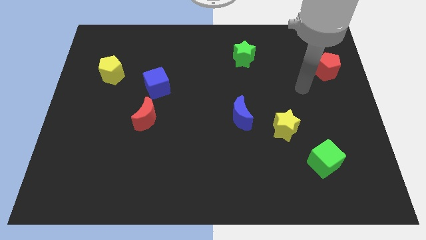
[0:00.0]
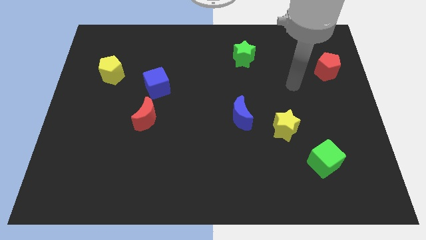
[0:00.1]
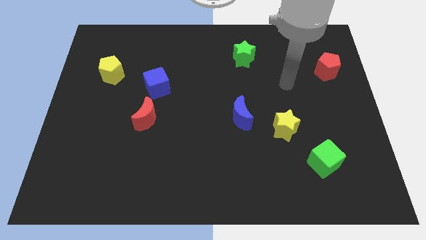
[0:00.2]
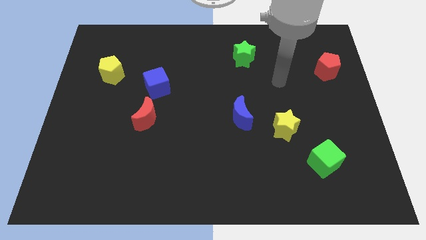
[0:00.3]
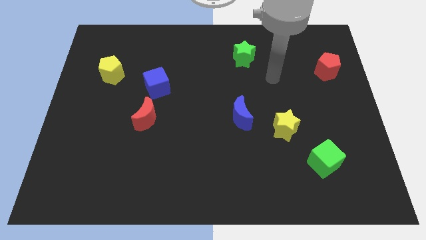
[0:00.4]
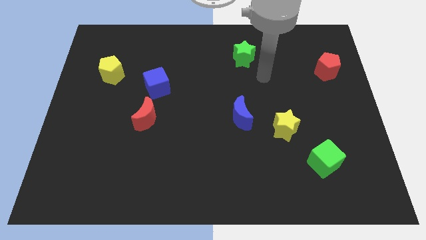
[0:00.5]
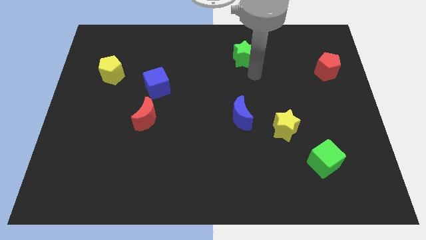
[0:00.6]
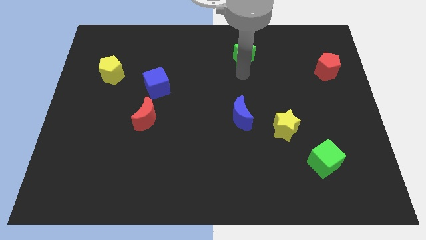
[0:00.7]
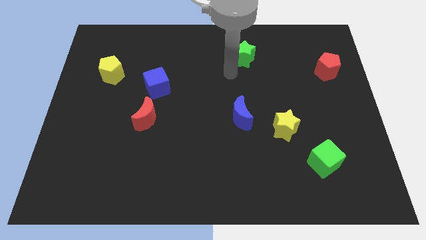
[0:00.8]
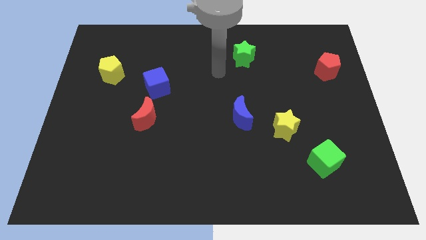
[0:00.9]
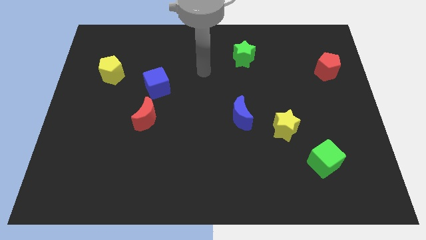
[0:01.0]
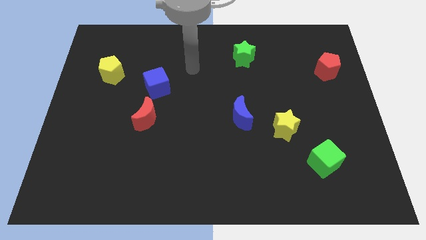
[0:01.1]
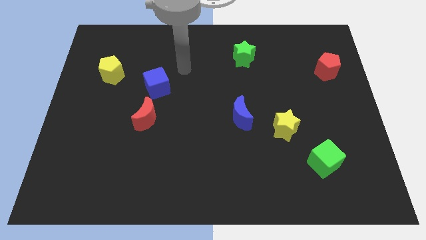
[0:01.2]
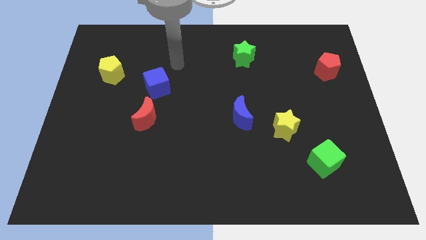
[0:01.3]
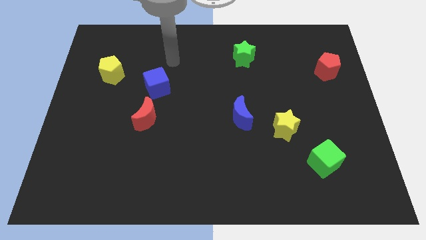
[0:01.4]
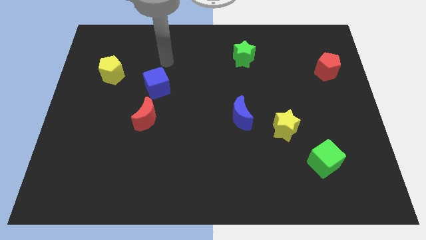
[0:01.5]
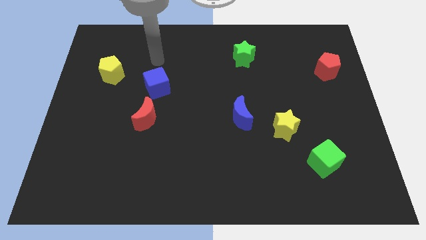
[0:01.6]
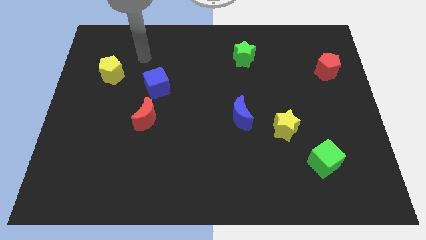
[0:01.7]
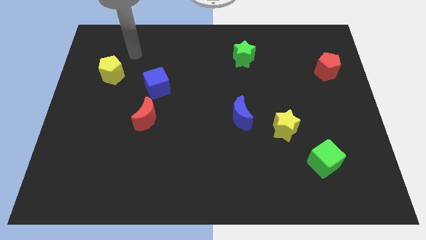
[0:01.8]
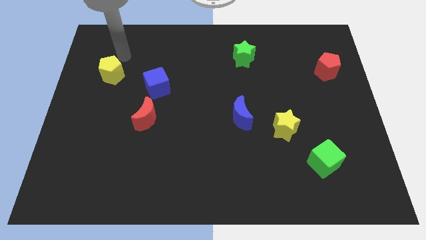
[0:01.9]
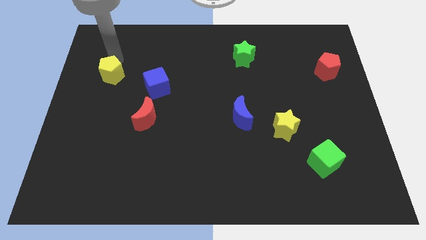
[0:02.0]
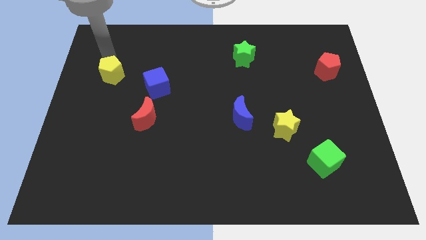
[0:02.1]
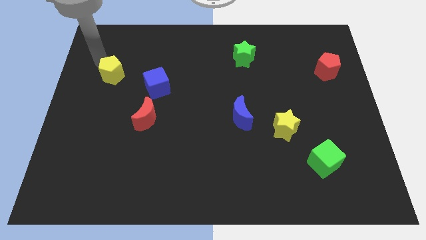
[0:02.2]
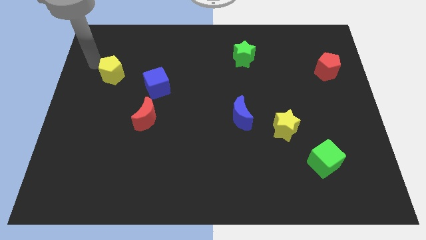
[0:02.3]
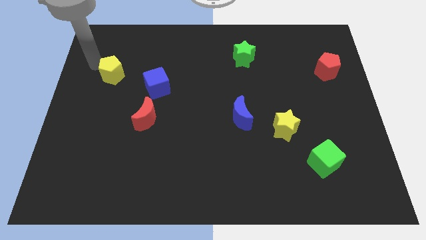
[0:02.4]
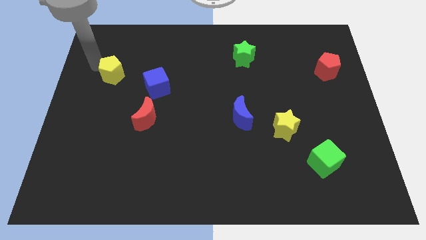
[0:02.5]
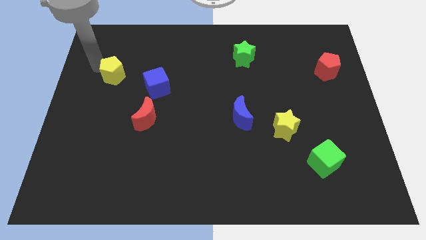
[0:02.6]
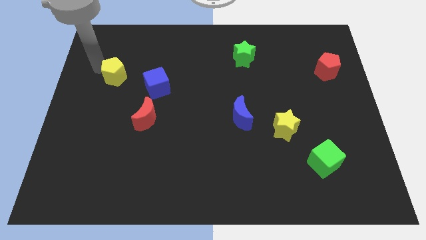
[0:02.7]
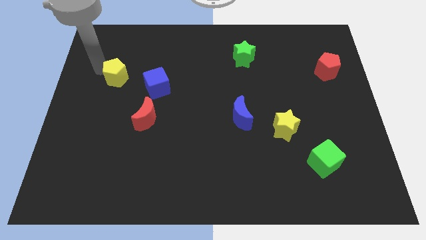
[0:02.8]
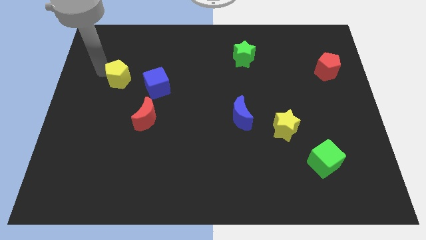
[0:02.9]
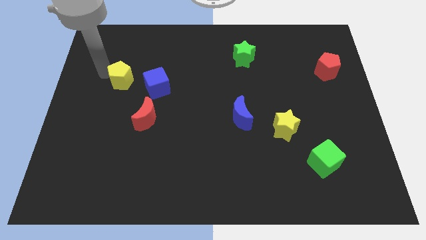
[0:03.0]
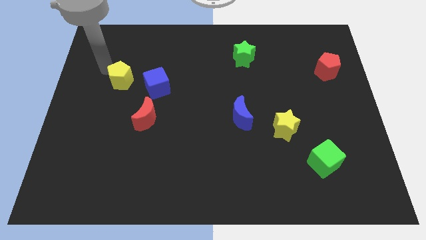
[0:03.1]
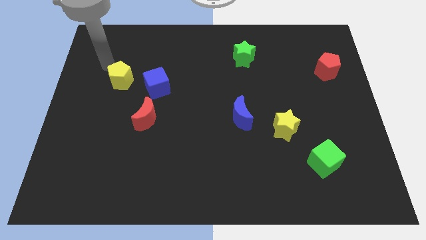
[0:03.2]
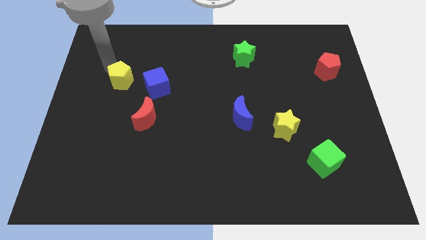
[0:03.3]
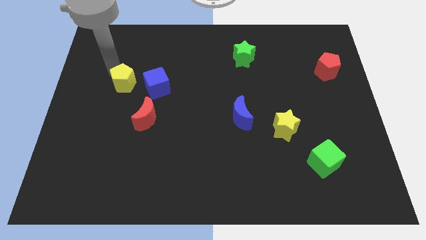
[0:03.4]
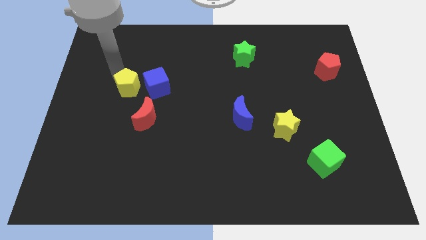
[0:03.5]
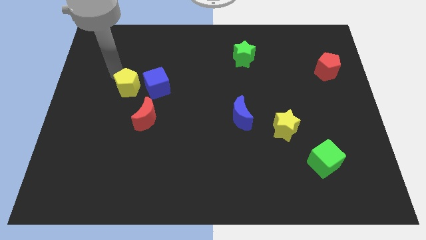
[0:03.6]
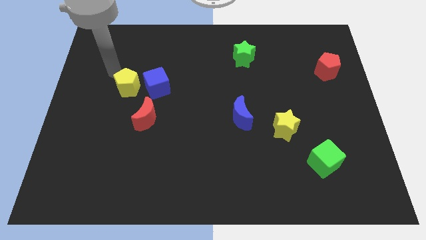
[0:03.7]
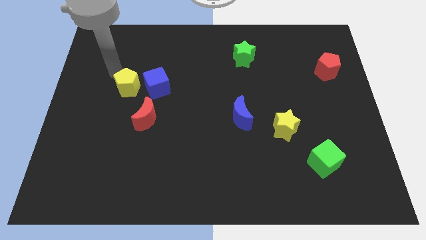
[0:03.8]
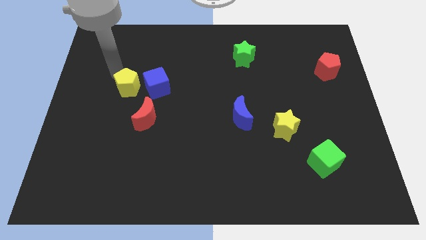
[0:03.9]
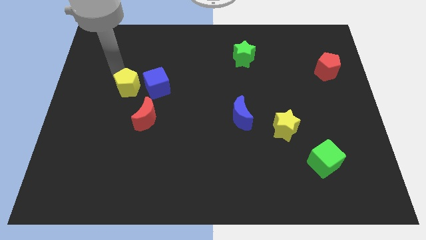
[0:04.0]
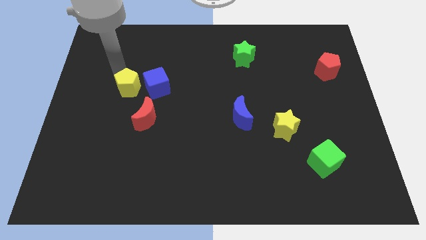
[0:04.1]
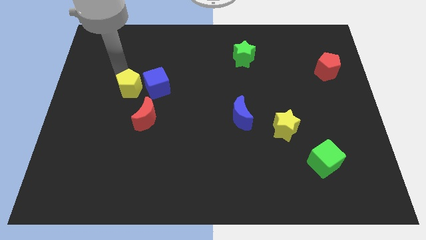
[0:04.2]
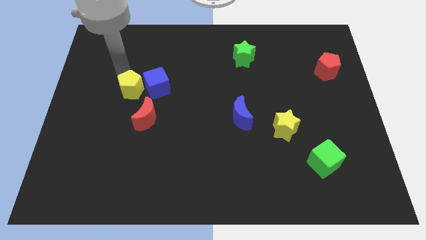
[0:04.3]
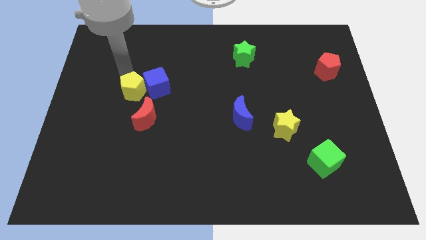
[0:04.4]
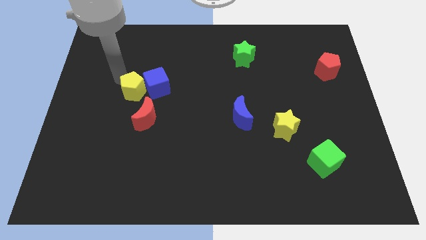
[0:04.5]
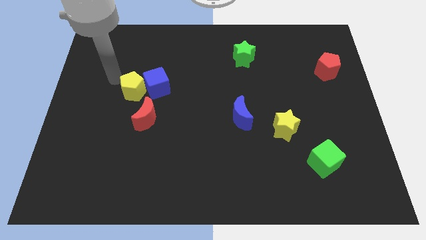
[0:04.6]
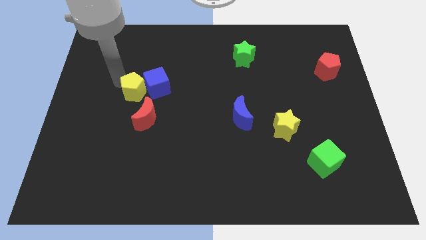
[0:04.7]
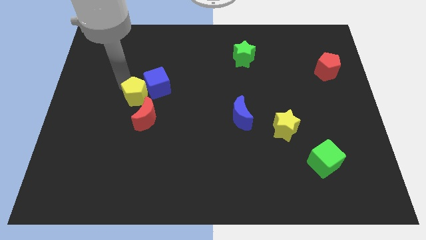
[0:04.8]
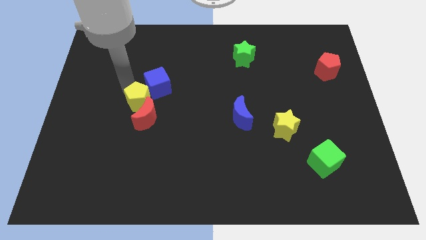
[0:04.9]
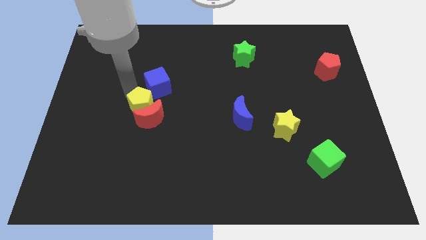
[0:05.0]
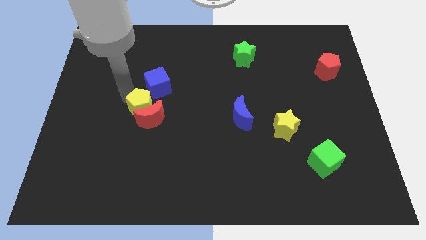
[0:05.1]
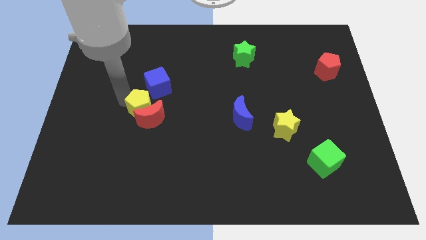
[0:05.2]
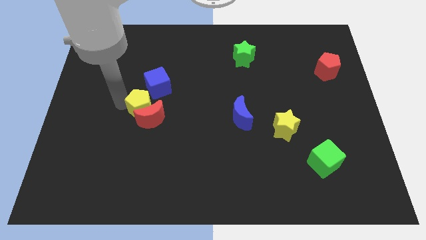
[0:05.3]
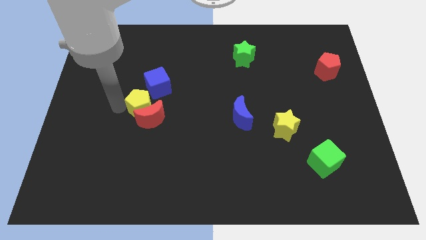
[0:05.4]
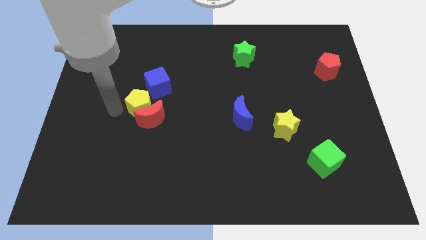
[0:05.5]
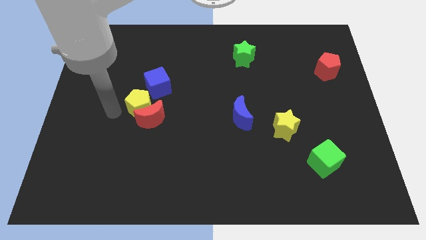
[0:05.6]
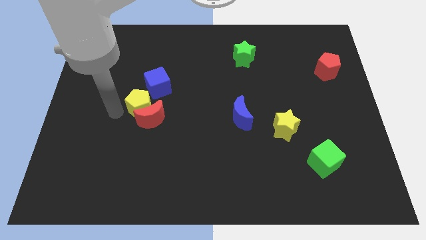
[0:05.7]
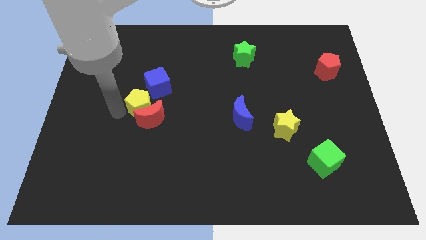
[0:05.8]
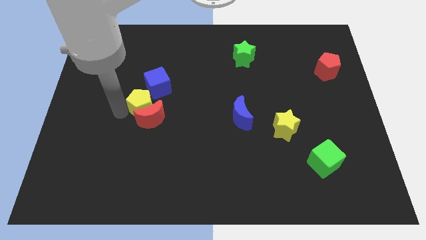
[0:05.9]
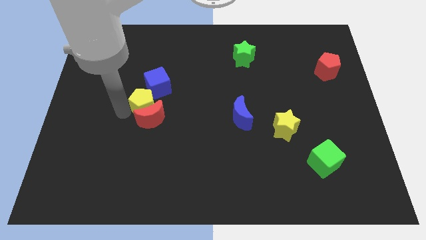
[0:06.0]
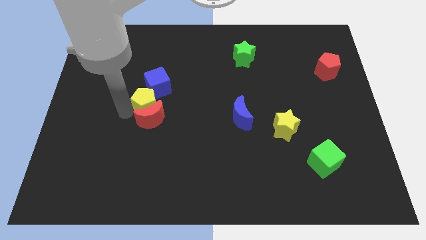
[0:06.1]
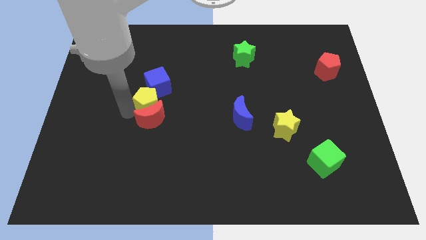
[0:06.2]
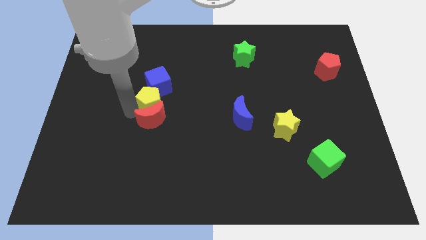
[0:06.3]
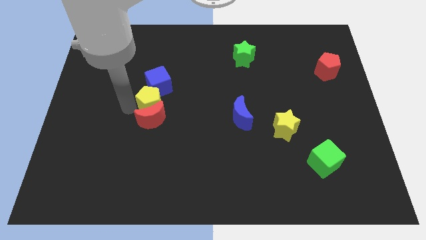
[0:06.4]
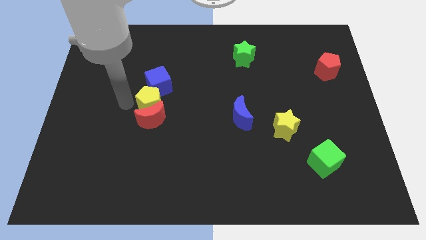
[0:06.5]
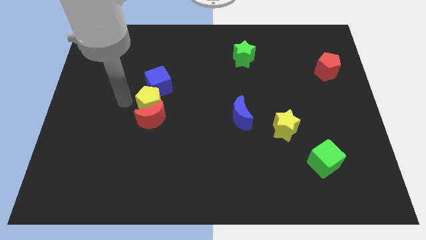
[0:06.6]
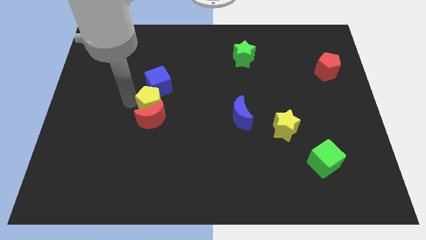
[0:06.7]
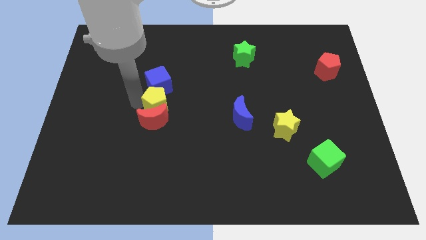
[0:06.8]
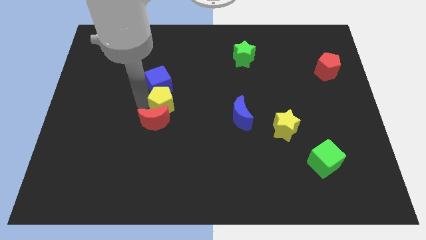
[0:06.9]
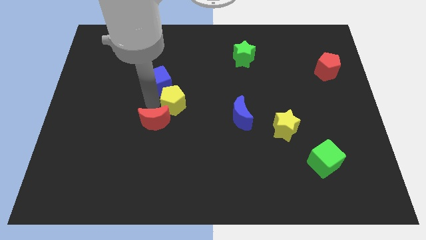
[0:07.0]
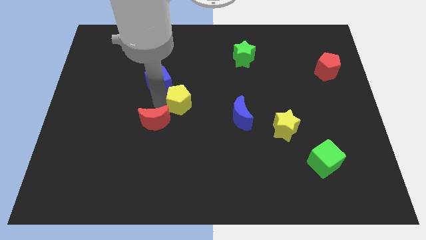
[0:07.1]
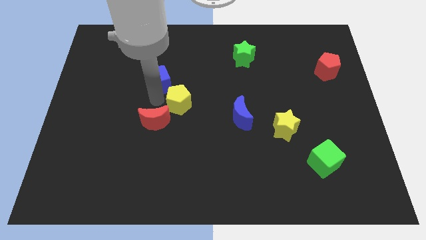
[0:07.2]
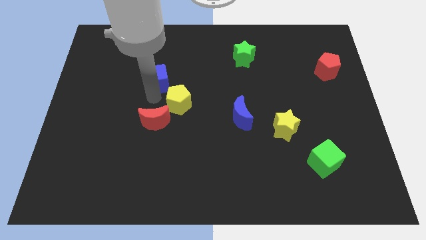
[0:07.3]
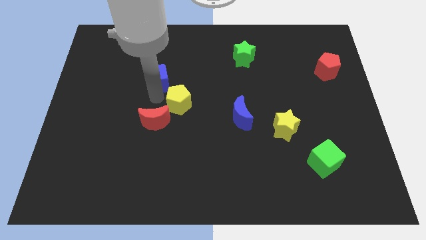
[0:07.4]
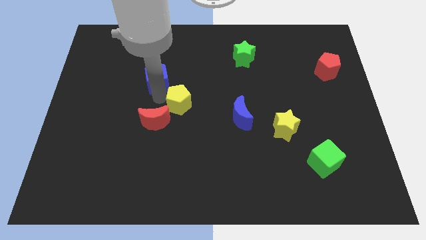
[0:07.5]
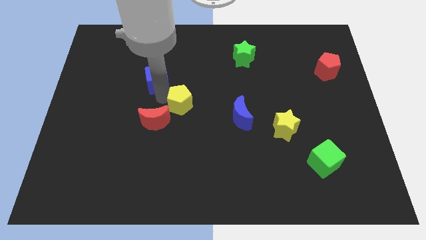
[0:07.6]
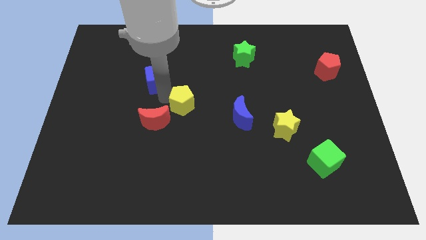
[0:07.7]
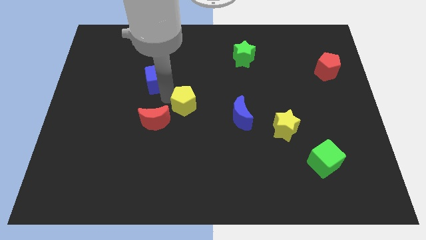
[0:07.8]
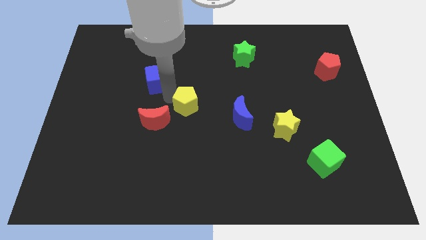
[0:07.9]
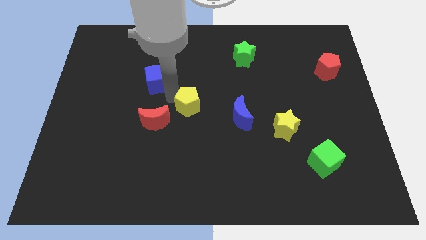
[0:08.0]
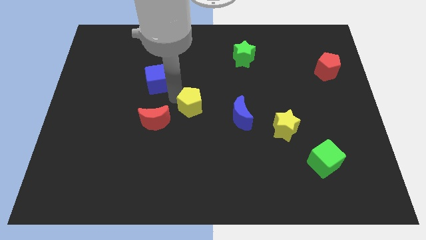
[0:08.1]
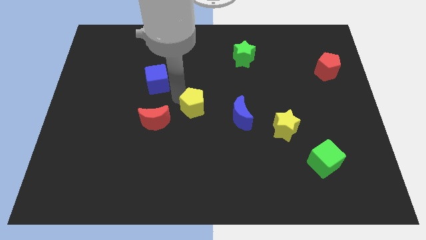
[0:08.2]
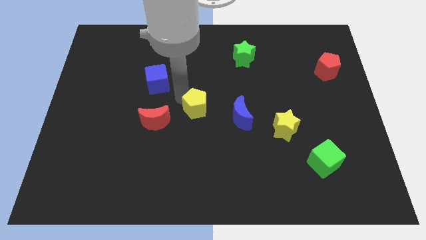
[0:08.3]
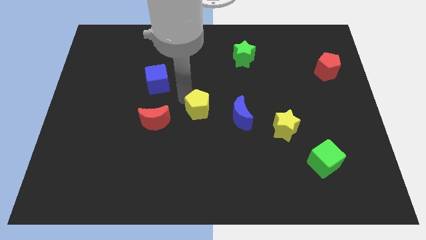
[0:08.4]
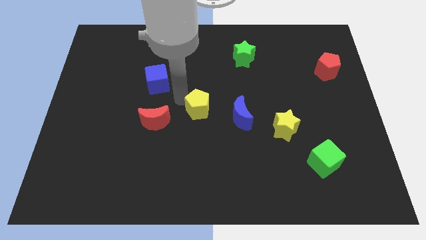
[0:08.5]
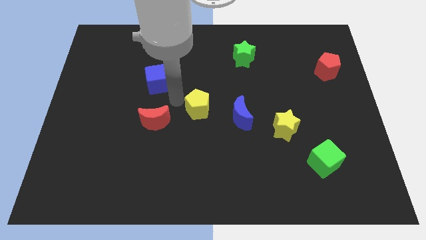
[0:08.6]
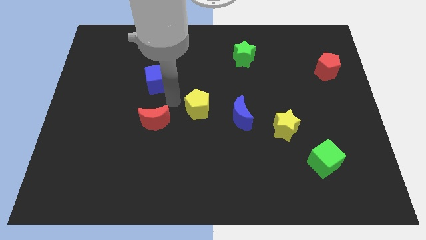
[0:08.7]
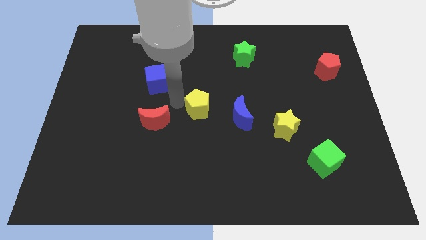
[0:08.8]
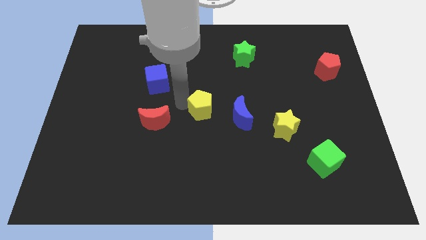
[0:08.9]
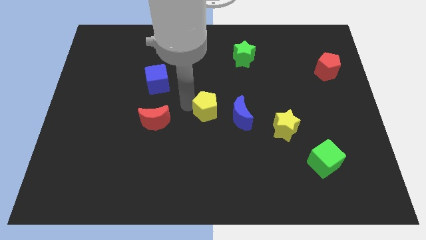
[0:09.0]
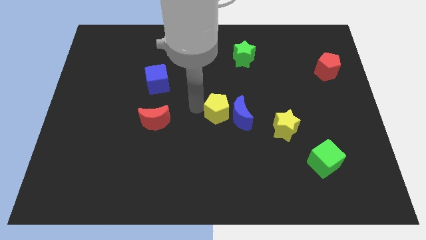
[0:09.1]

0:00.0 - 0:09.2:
put the yellow pentagon close to the blue moon
